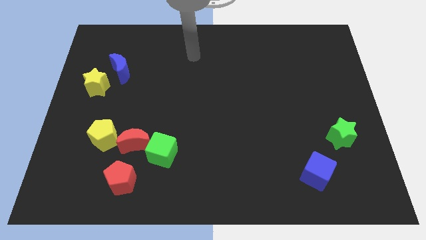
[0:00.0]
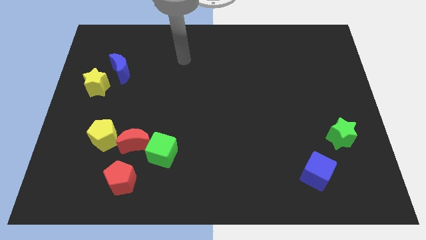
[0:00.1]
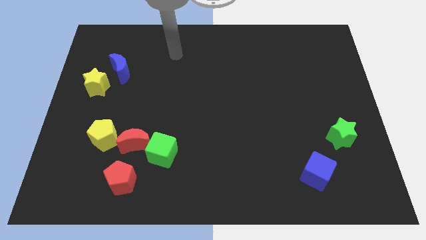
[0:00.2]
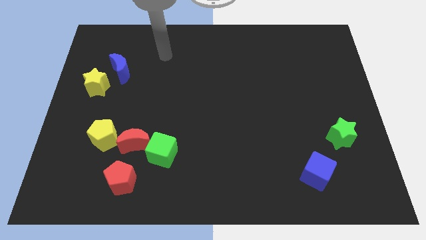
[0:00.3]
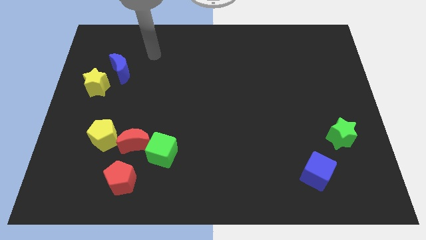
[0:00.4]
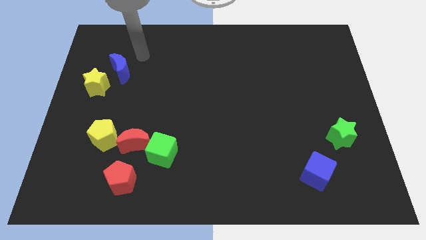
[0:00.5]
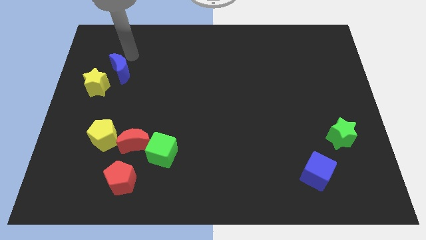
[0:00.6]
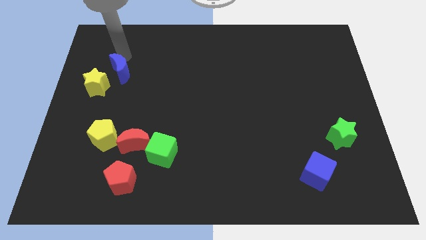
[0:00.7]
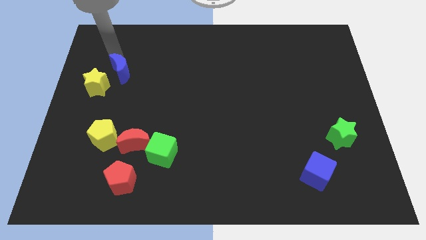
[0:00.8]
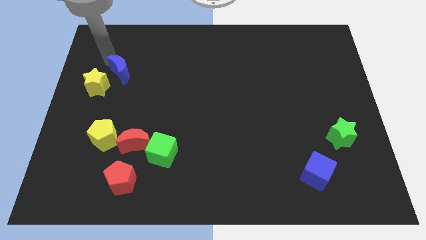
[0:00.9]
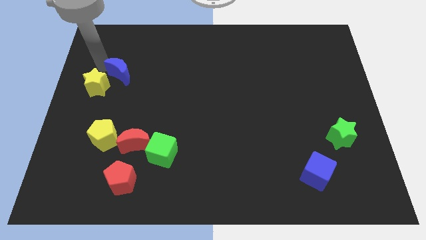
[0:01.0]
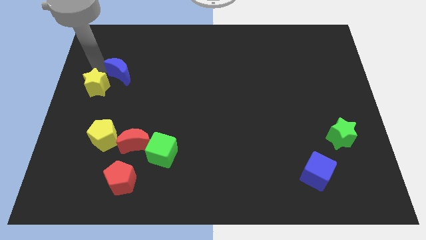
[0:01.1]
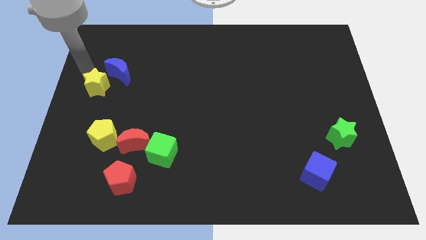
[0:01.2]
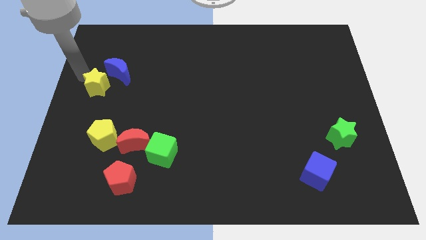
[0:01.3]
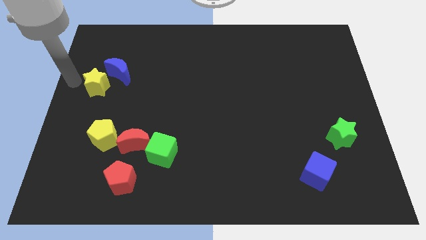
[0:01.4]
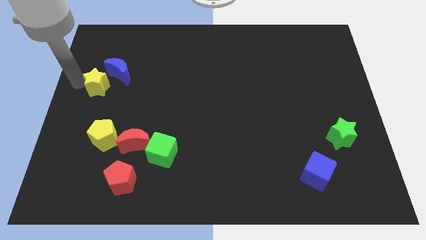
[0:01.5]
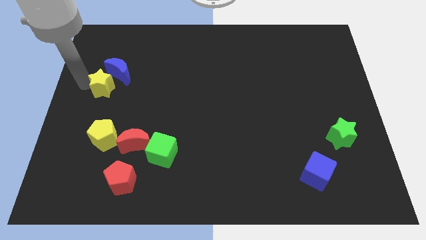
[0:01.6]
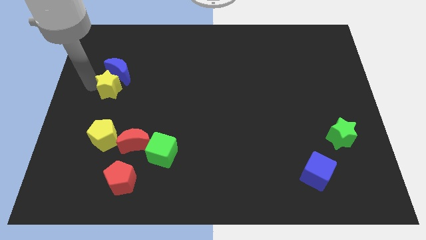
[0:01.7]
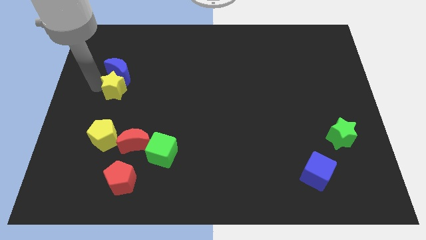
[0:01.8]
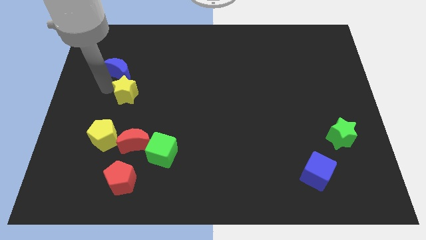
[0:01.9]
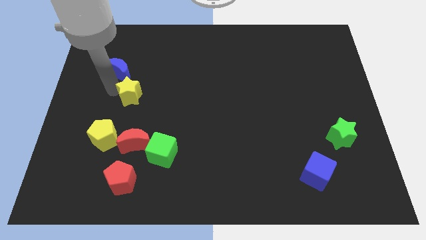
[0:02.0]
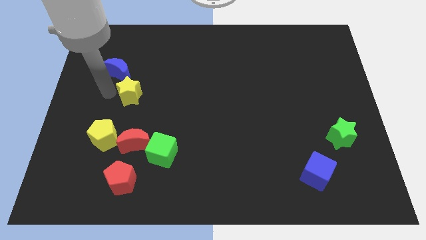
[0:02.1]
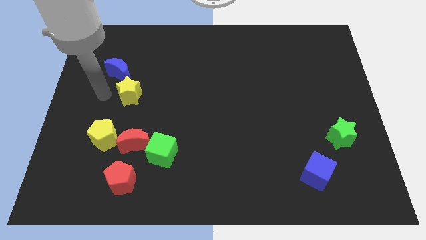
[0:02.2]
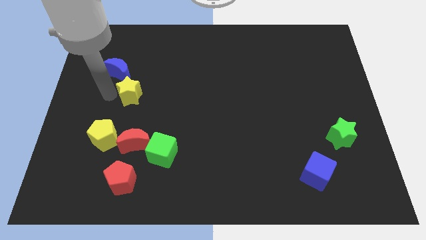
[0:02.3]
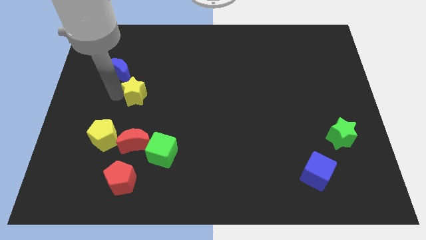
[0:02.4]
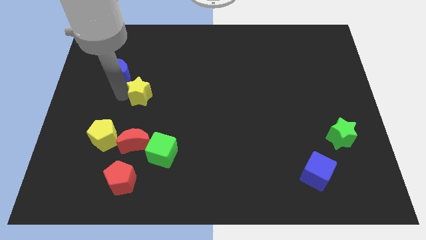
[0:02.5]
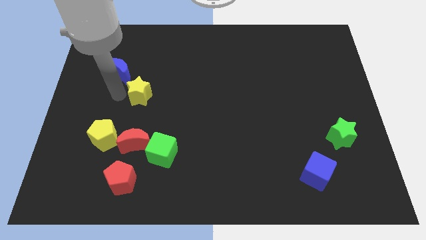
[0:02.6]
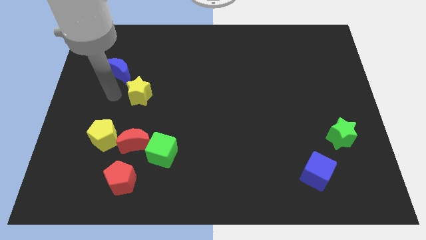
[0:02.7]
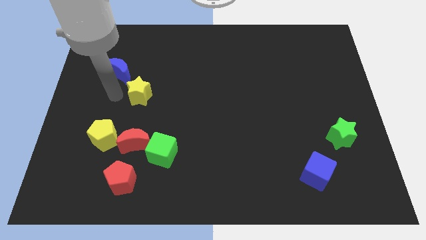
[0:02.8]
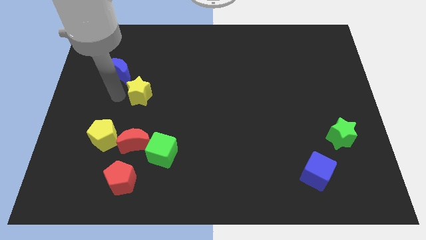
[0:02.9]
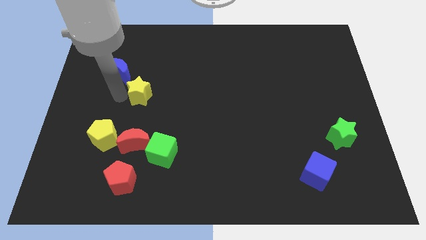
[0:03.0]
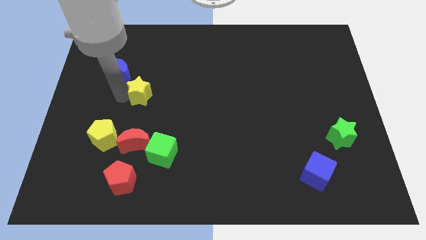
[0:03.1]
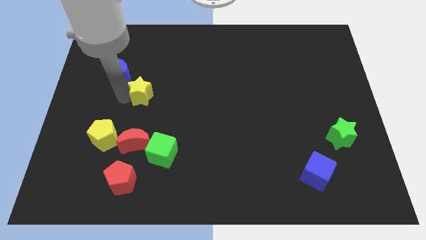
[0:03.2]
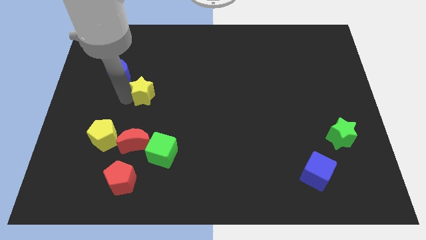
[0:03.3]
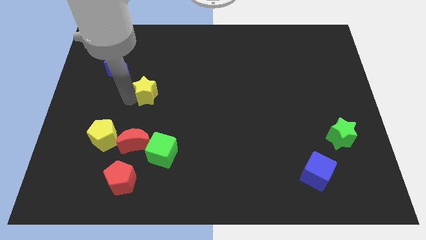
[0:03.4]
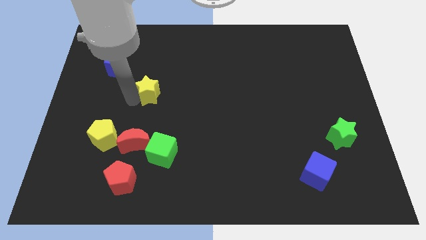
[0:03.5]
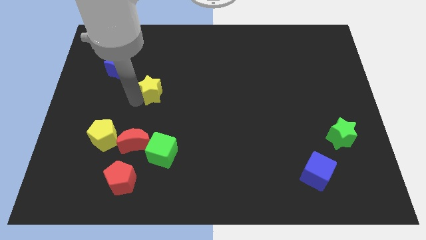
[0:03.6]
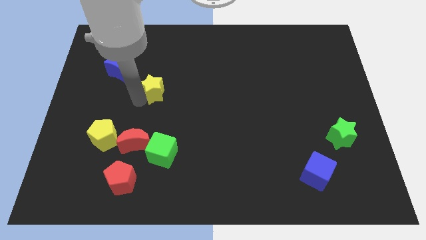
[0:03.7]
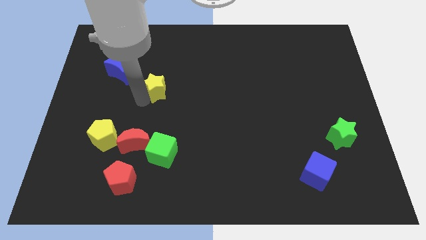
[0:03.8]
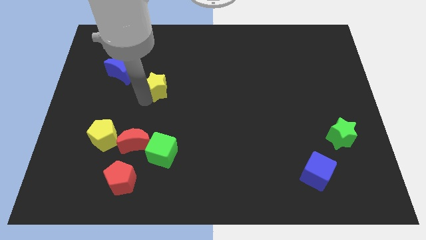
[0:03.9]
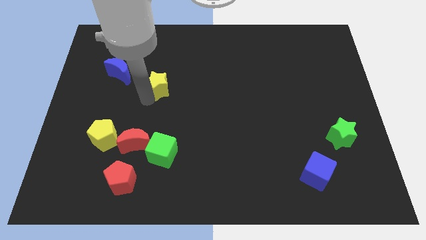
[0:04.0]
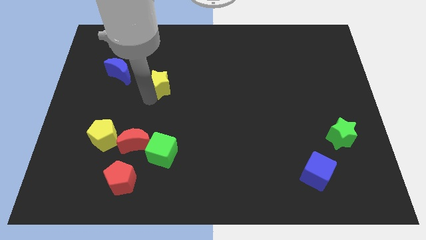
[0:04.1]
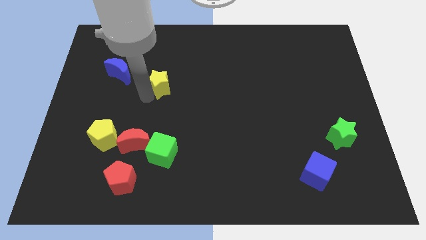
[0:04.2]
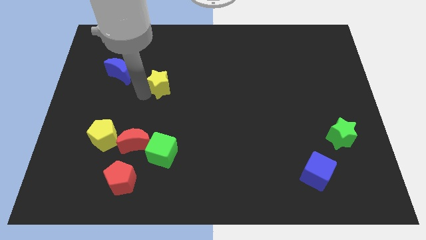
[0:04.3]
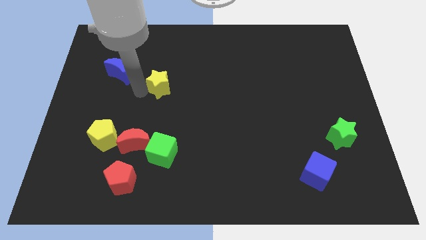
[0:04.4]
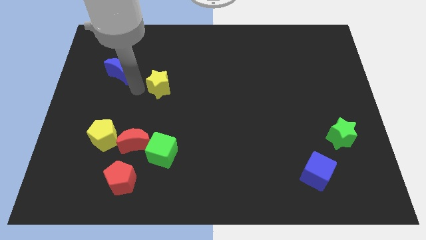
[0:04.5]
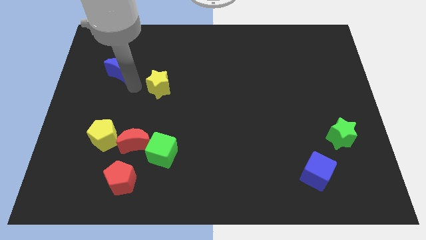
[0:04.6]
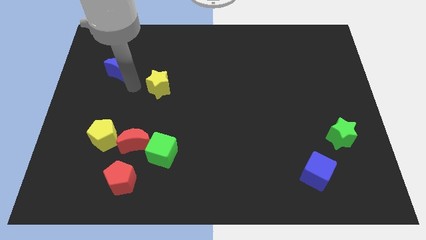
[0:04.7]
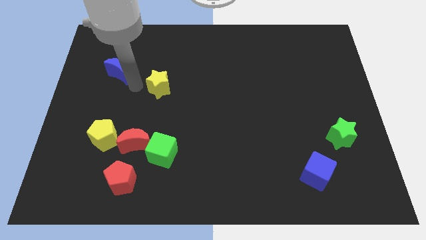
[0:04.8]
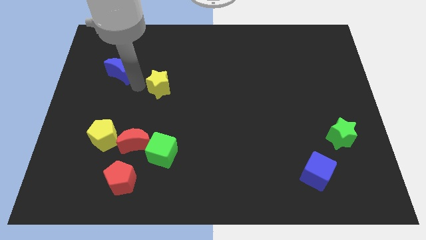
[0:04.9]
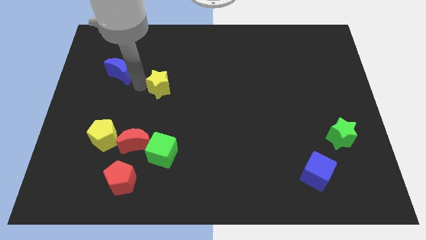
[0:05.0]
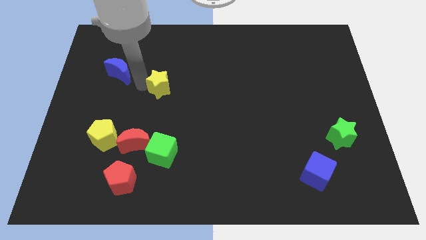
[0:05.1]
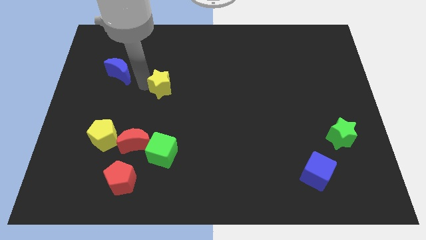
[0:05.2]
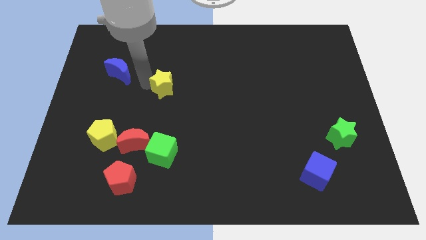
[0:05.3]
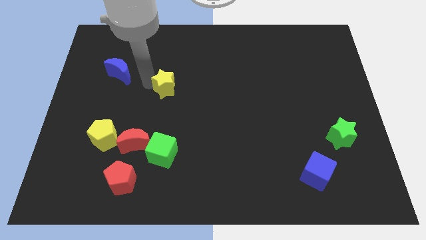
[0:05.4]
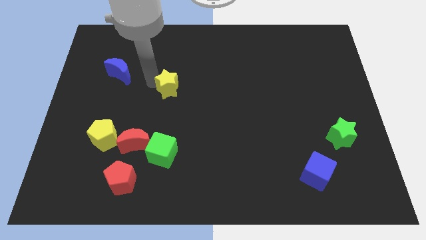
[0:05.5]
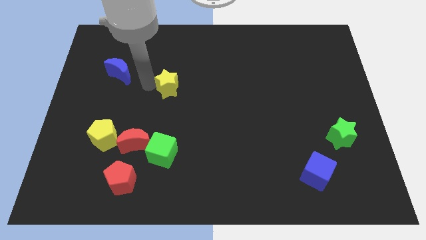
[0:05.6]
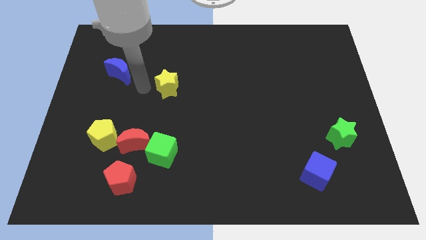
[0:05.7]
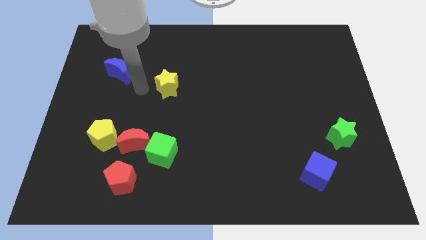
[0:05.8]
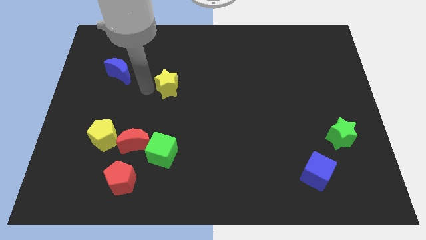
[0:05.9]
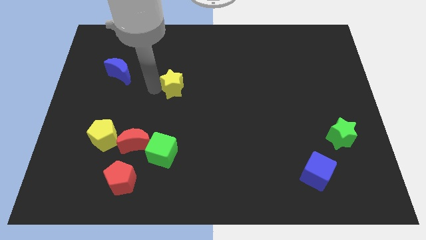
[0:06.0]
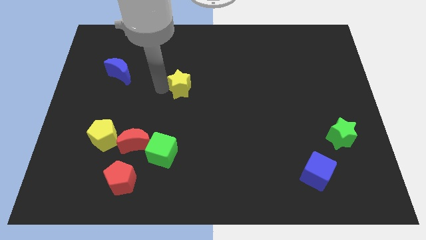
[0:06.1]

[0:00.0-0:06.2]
move the yellow star right

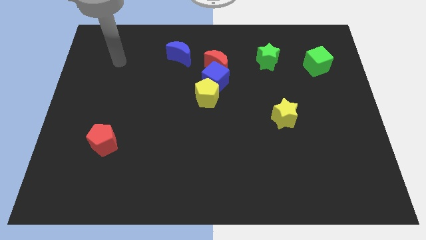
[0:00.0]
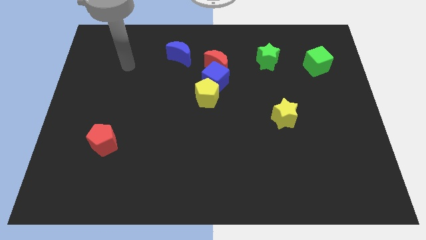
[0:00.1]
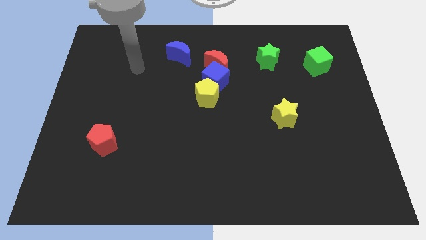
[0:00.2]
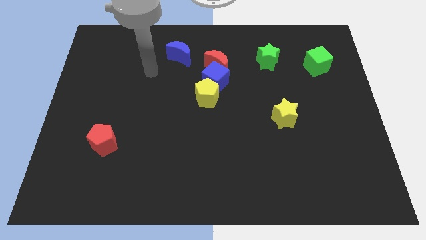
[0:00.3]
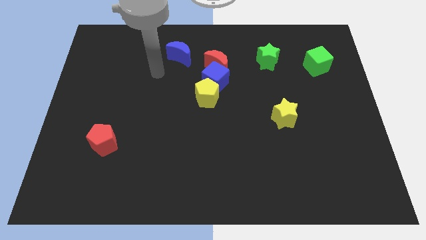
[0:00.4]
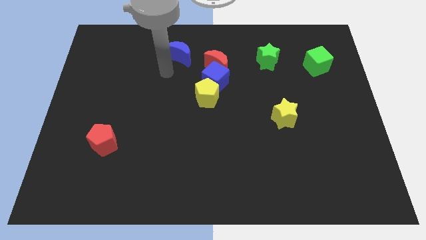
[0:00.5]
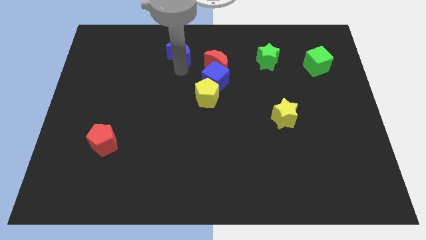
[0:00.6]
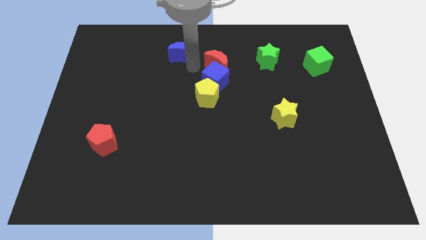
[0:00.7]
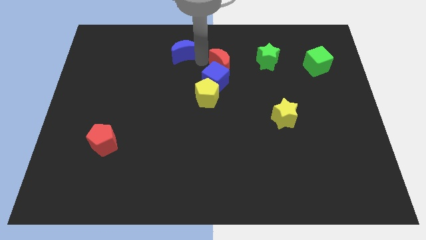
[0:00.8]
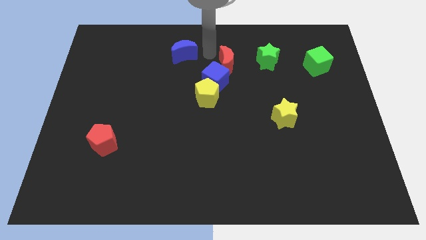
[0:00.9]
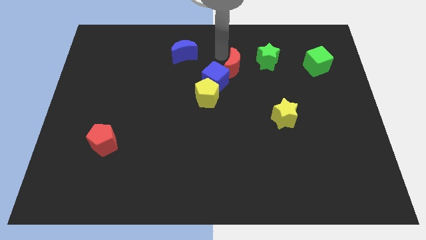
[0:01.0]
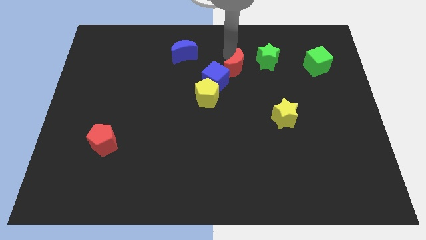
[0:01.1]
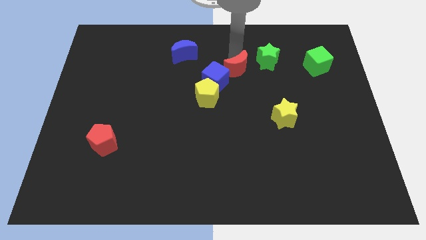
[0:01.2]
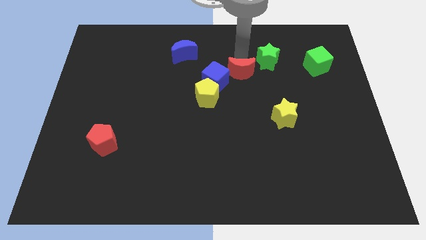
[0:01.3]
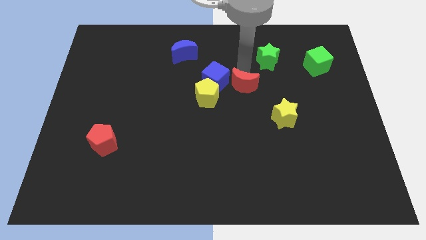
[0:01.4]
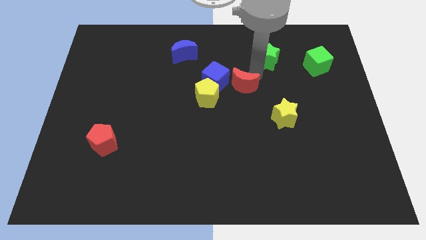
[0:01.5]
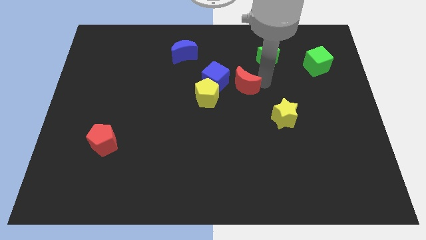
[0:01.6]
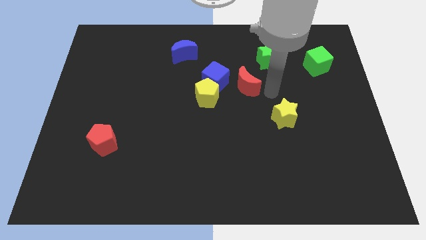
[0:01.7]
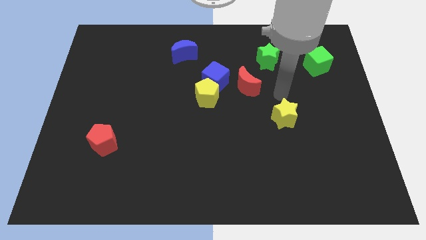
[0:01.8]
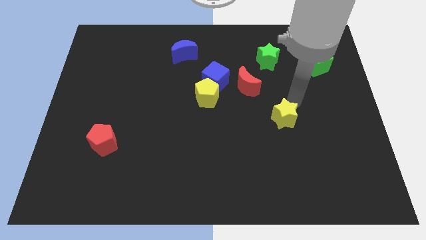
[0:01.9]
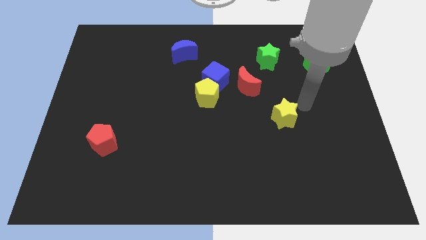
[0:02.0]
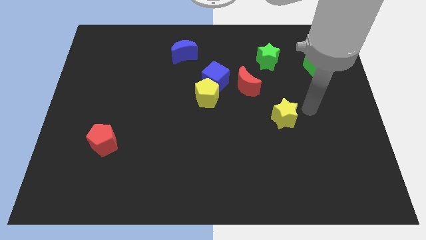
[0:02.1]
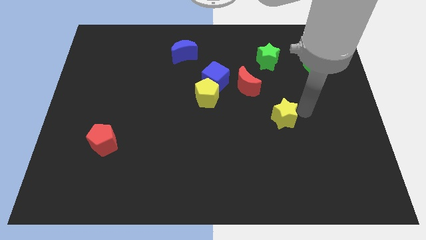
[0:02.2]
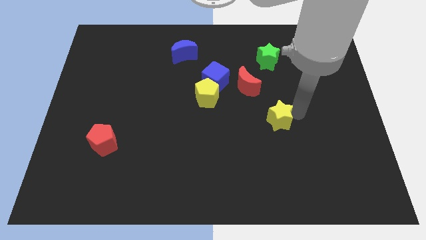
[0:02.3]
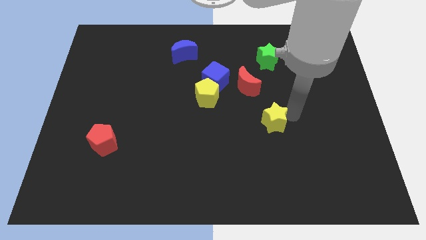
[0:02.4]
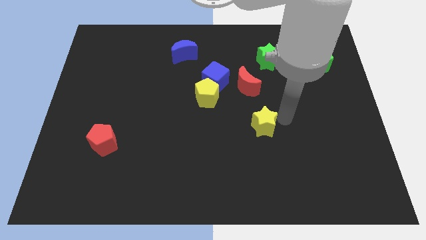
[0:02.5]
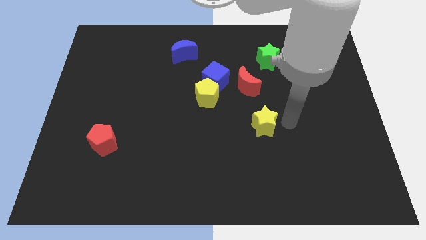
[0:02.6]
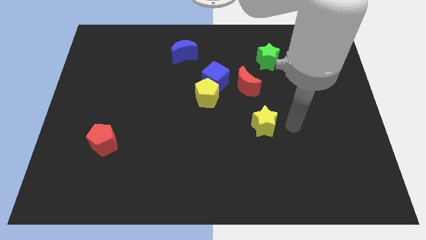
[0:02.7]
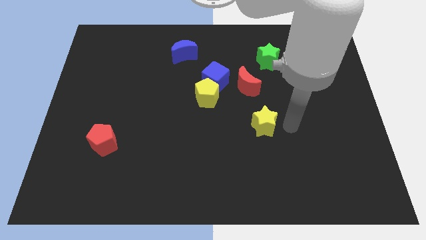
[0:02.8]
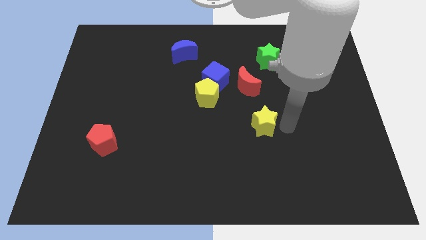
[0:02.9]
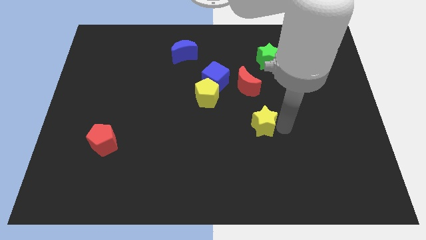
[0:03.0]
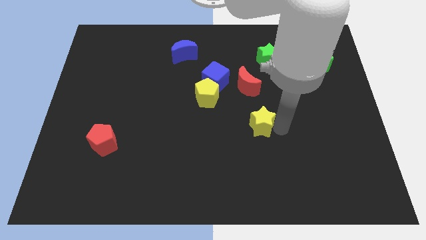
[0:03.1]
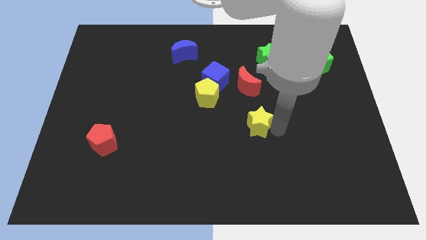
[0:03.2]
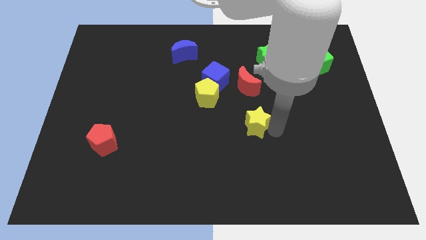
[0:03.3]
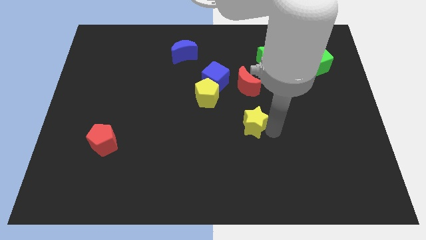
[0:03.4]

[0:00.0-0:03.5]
slightly slide the yellow star left
